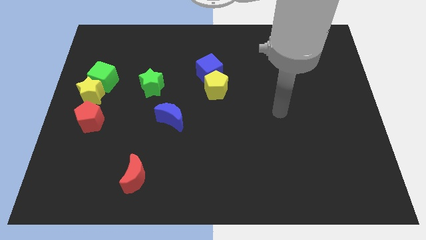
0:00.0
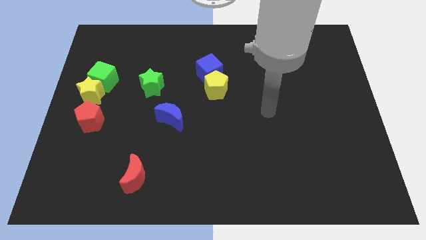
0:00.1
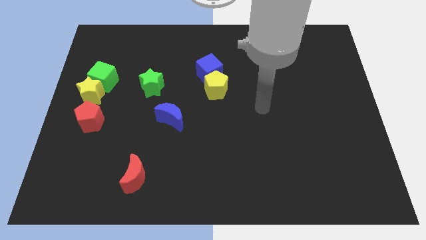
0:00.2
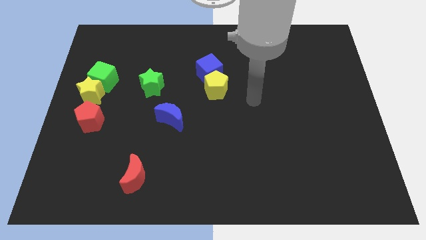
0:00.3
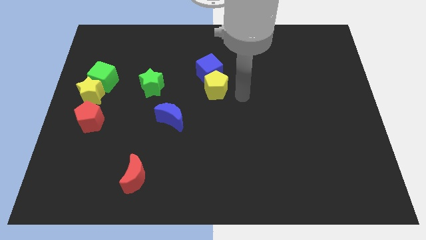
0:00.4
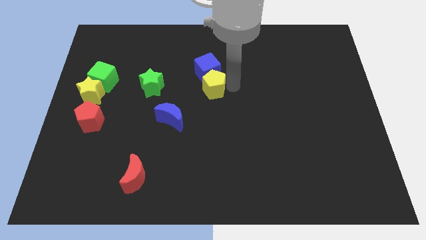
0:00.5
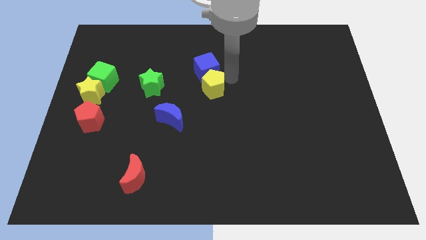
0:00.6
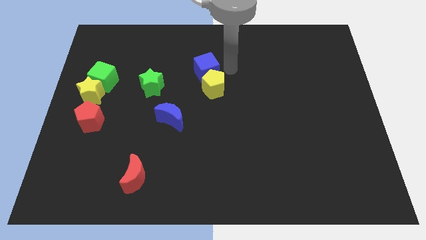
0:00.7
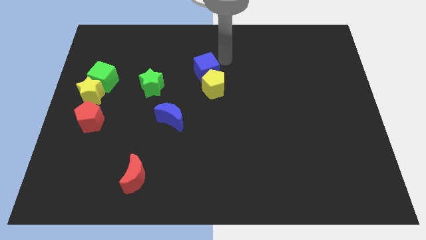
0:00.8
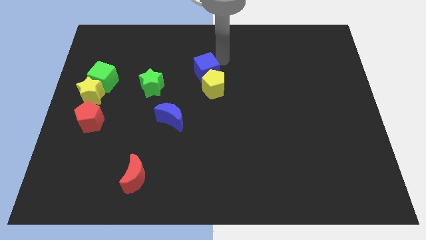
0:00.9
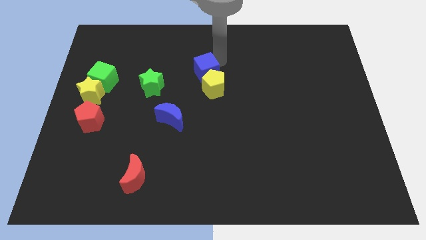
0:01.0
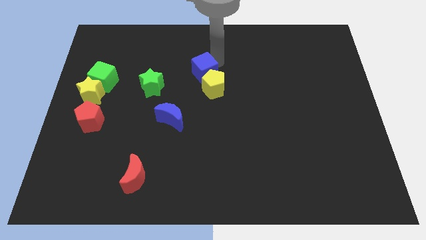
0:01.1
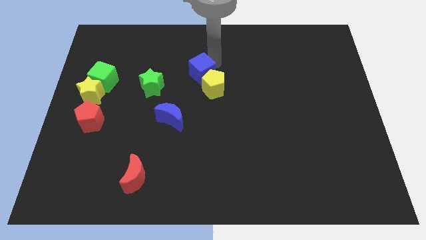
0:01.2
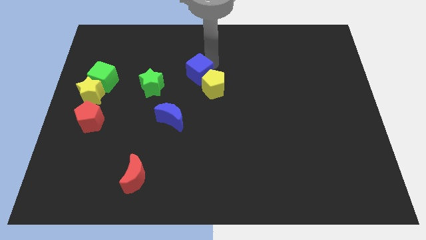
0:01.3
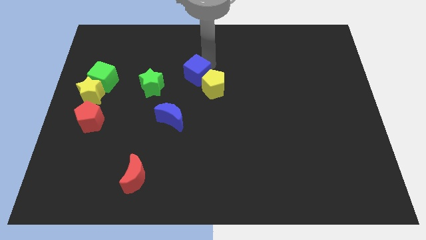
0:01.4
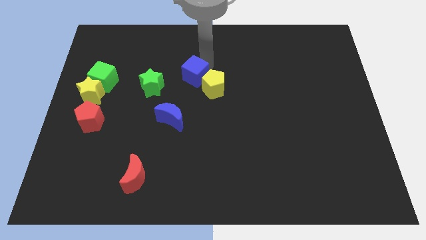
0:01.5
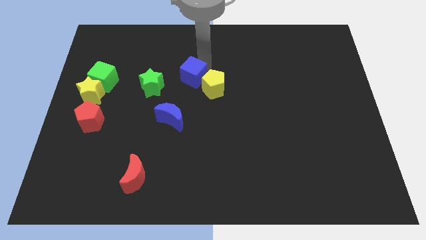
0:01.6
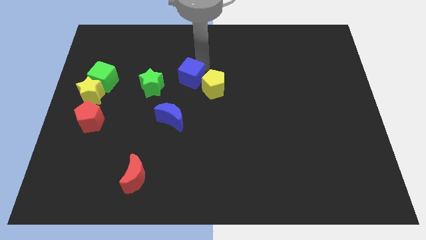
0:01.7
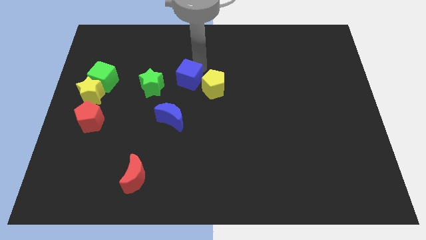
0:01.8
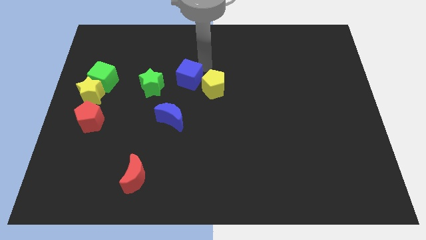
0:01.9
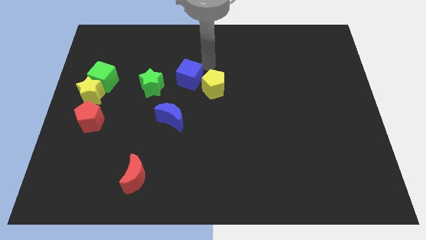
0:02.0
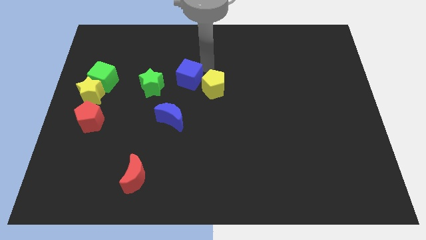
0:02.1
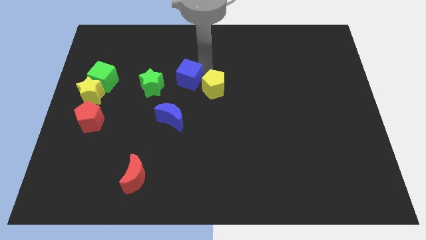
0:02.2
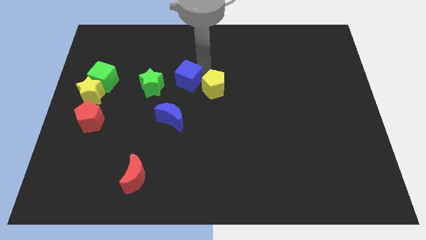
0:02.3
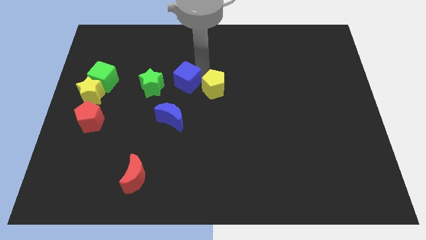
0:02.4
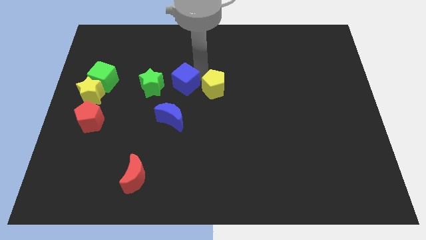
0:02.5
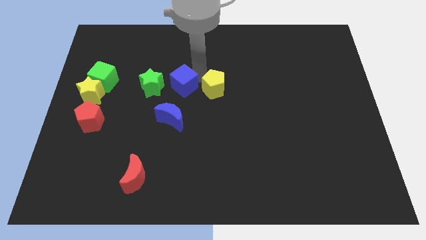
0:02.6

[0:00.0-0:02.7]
slightly slide the blue cube downwards and then left

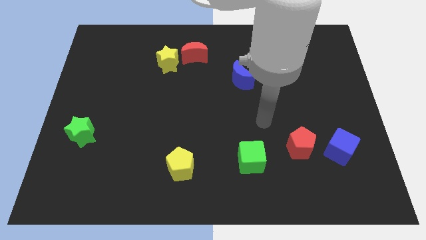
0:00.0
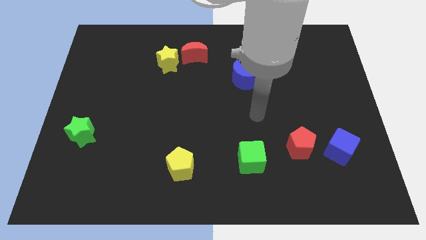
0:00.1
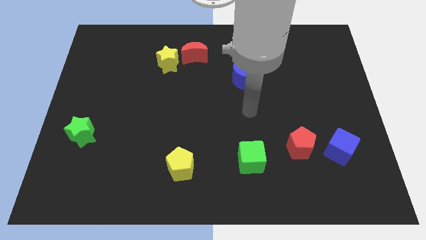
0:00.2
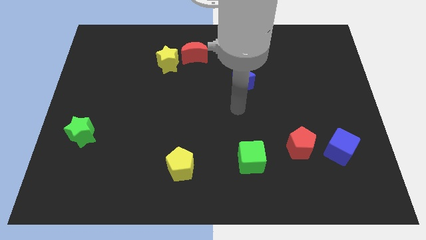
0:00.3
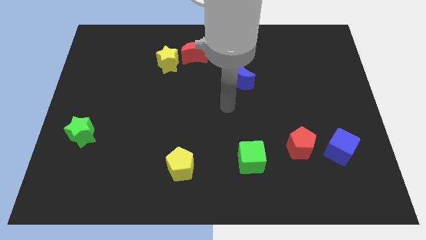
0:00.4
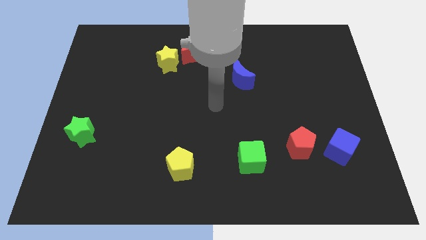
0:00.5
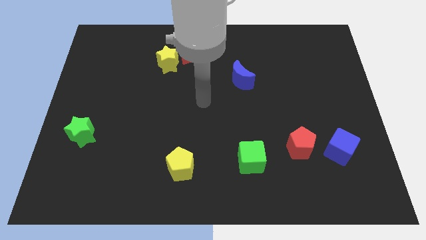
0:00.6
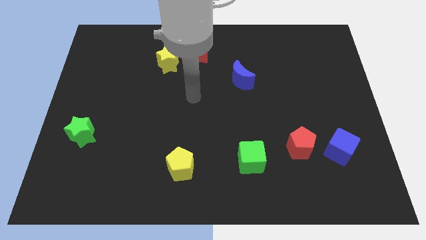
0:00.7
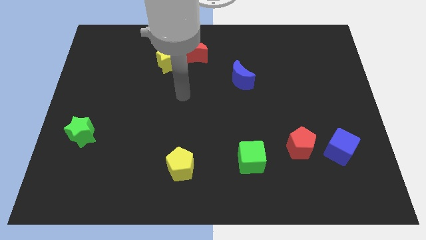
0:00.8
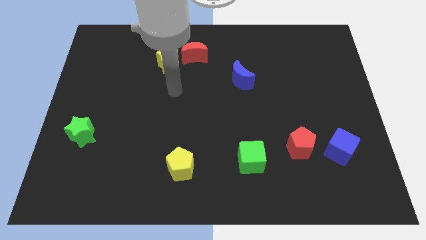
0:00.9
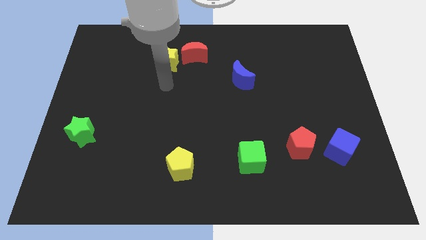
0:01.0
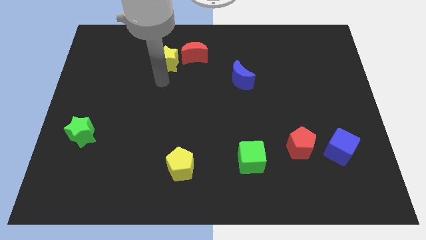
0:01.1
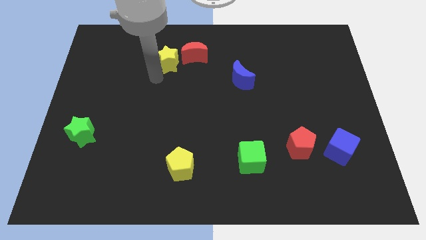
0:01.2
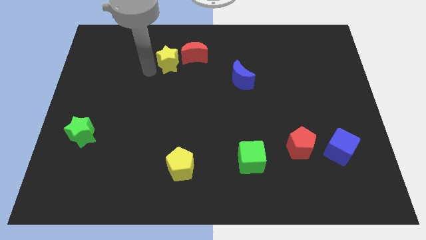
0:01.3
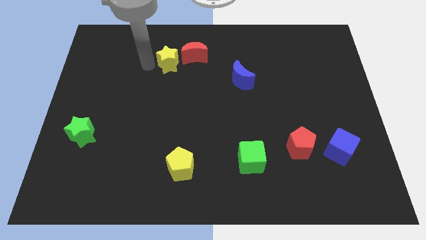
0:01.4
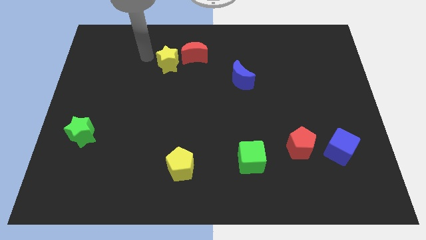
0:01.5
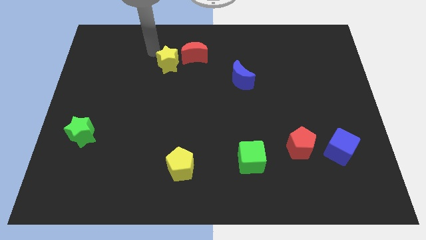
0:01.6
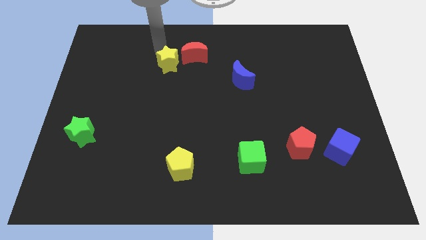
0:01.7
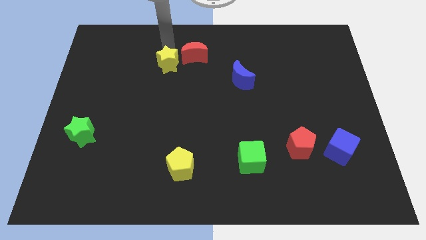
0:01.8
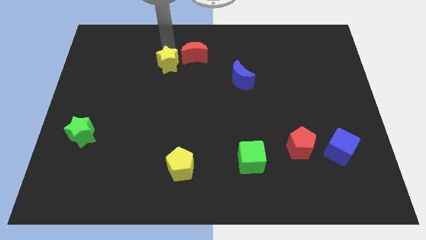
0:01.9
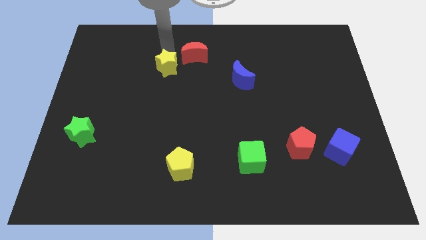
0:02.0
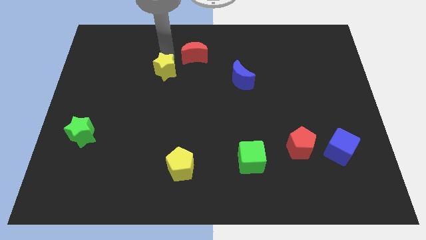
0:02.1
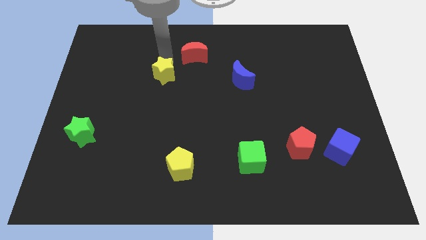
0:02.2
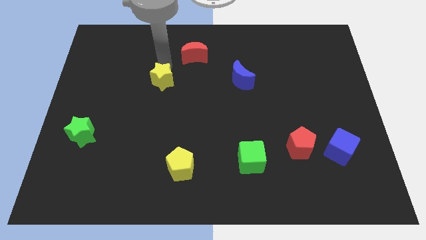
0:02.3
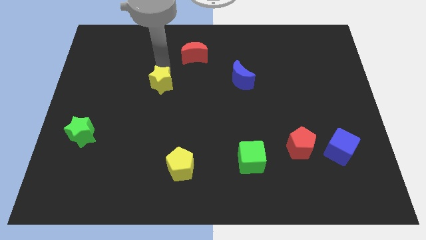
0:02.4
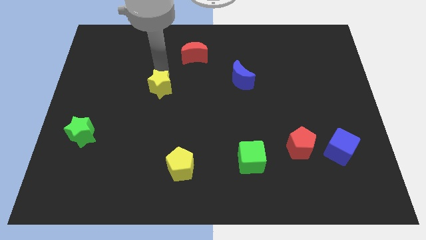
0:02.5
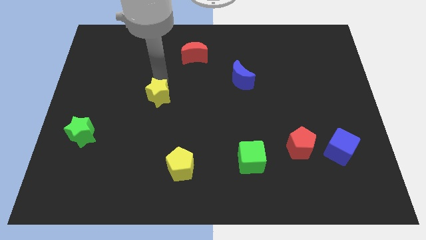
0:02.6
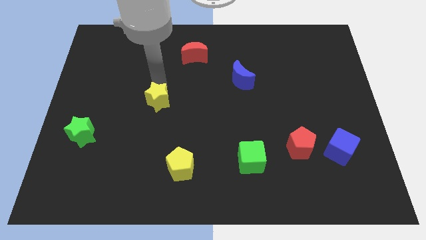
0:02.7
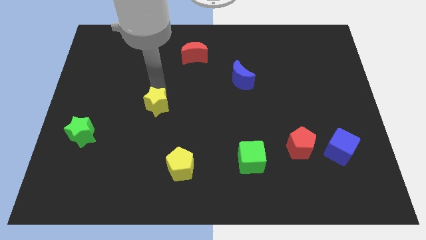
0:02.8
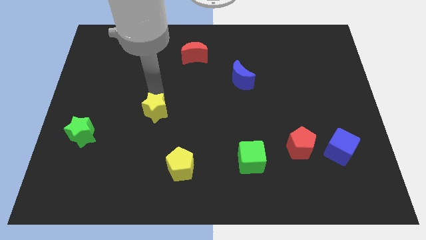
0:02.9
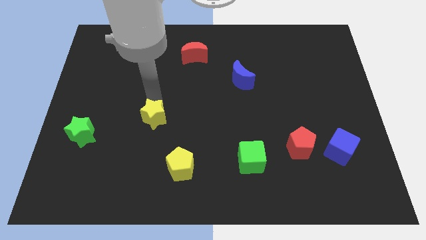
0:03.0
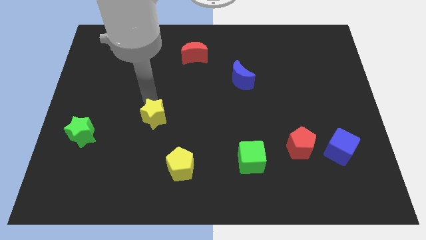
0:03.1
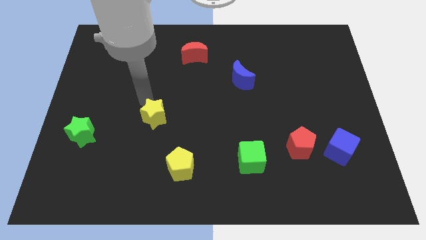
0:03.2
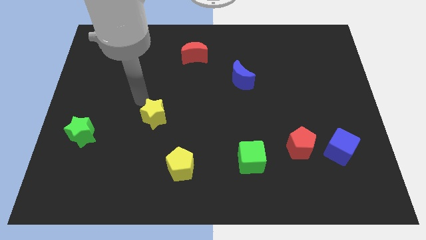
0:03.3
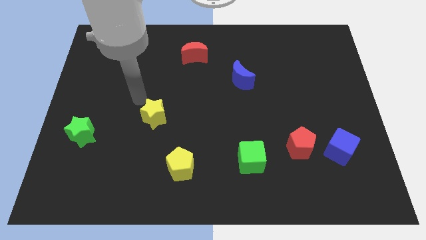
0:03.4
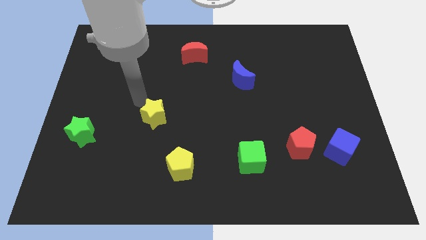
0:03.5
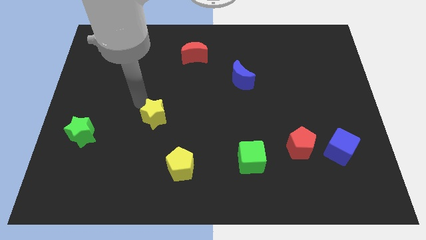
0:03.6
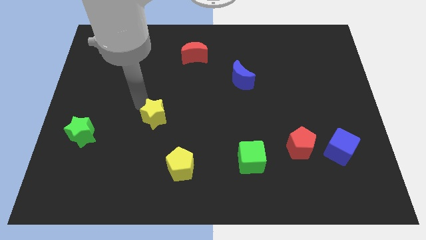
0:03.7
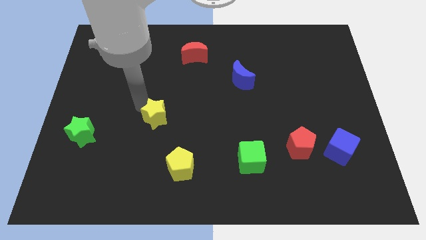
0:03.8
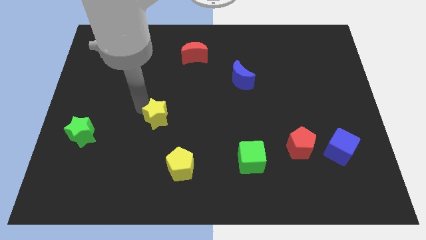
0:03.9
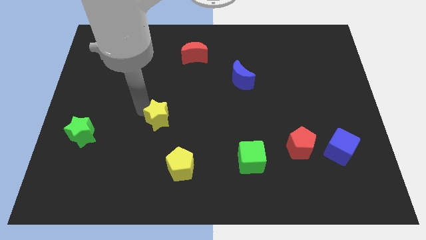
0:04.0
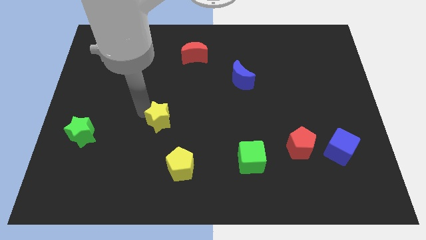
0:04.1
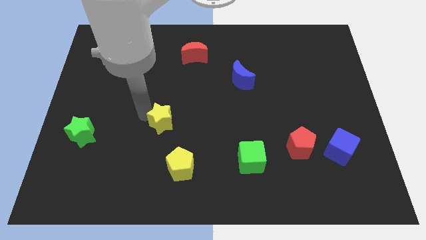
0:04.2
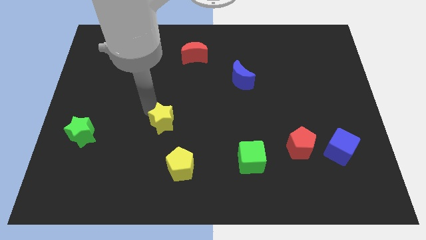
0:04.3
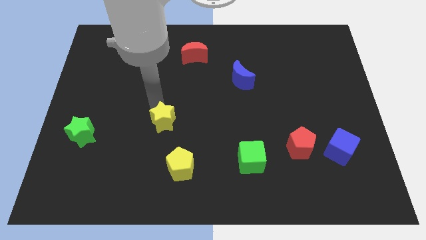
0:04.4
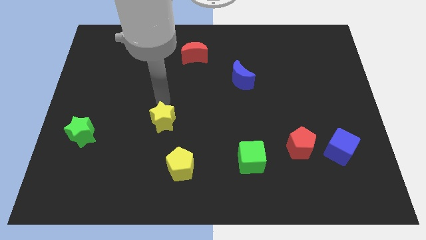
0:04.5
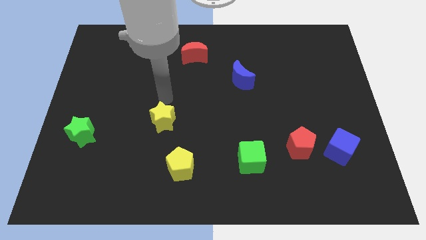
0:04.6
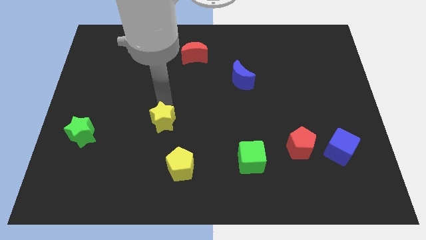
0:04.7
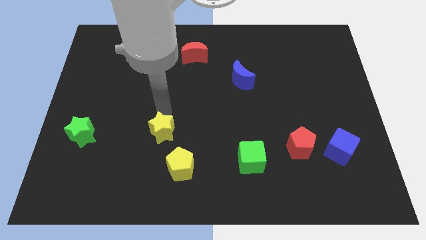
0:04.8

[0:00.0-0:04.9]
move the yellow star down

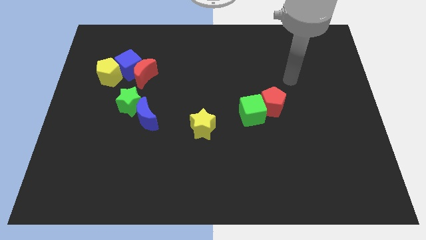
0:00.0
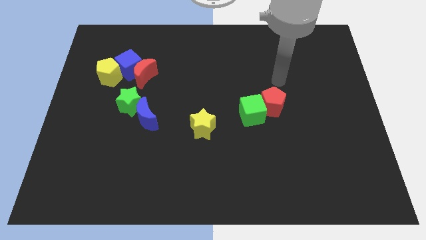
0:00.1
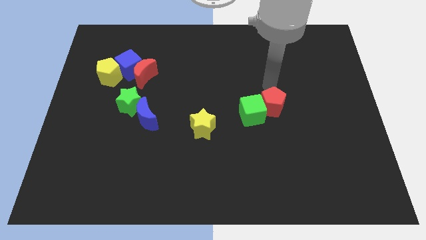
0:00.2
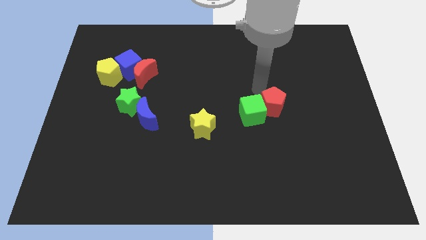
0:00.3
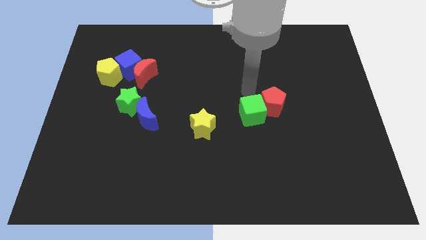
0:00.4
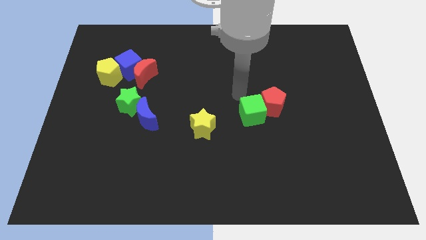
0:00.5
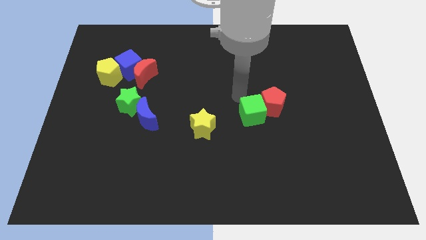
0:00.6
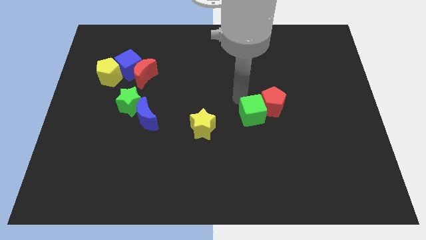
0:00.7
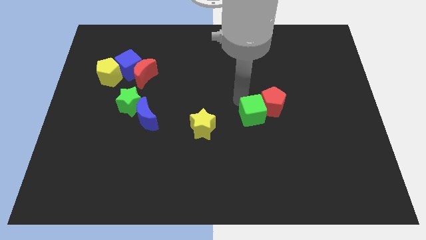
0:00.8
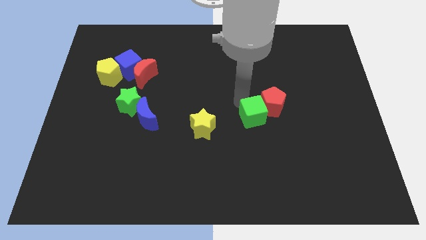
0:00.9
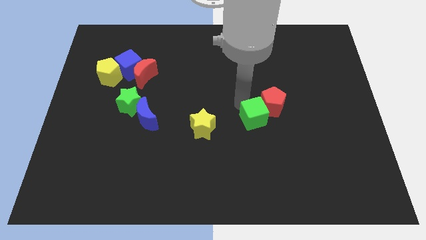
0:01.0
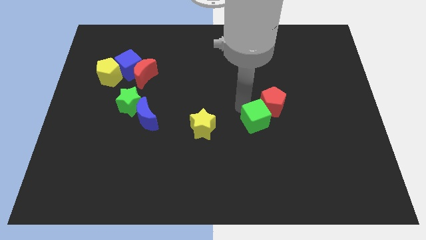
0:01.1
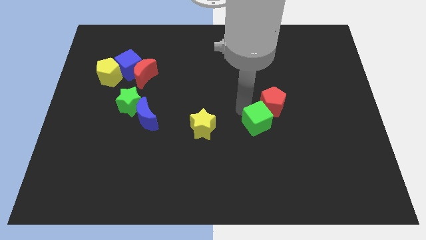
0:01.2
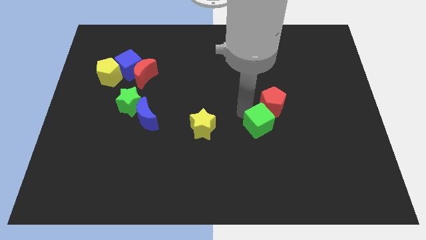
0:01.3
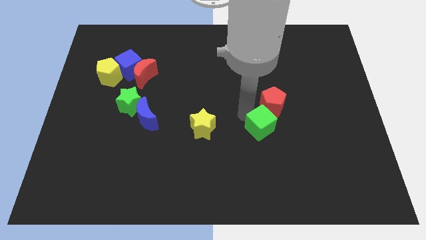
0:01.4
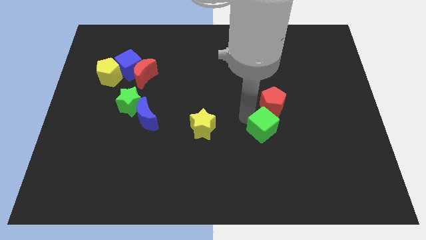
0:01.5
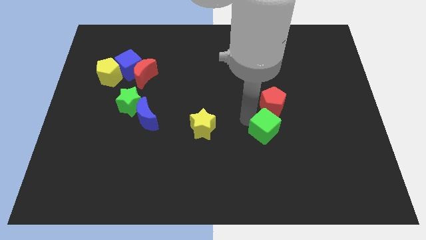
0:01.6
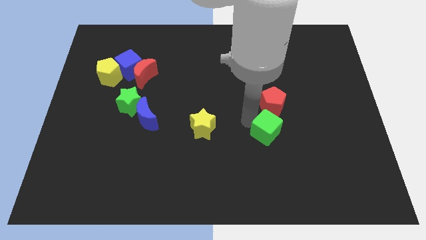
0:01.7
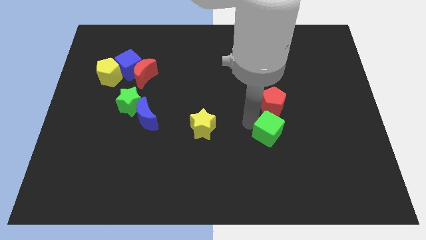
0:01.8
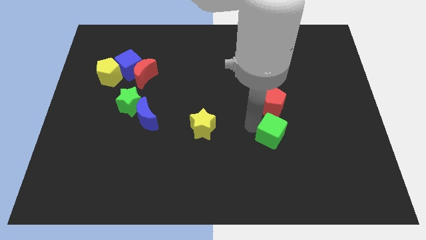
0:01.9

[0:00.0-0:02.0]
push the green cube a little bit downwards and then right
